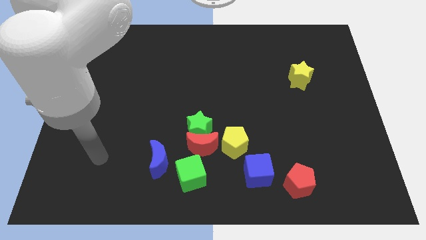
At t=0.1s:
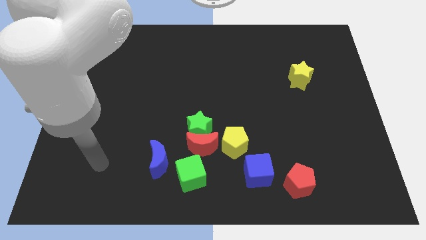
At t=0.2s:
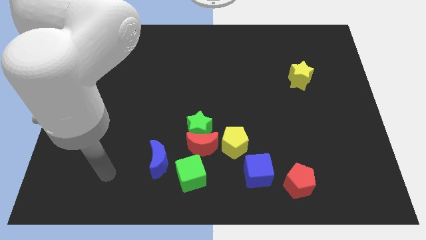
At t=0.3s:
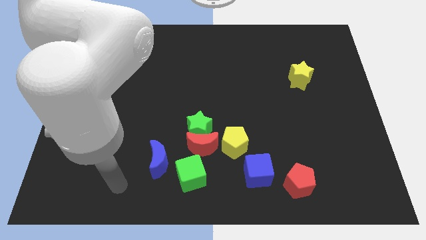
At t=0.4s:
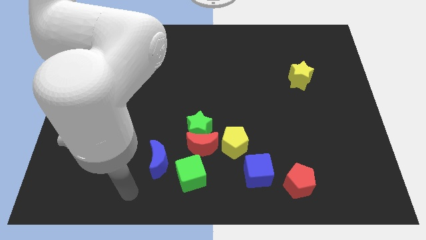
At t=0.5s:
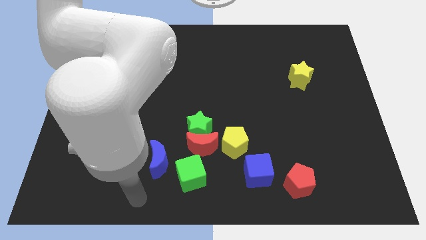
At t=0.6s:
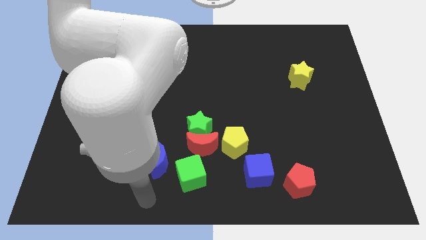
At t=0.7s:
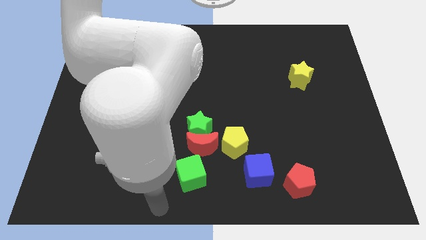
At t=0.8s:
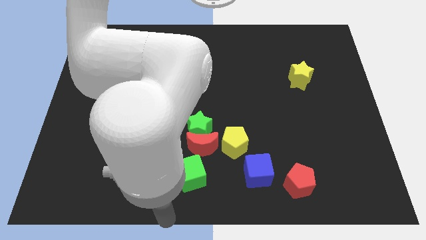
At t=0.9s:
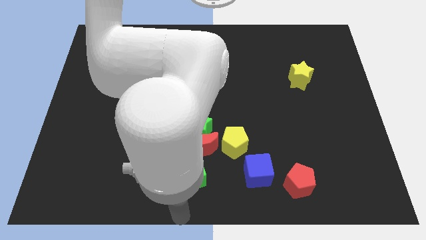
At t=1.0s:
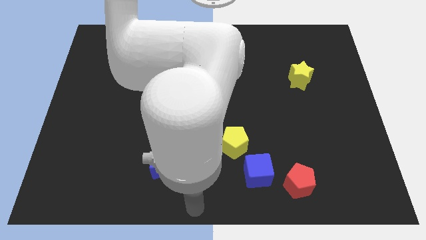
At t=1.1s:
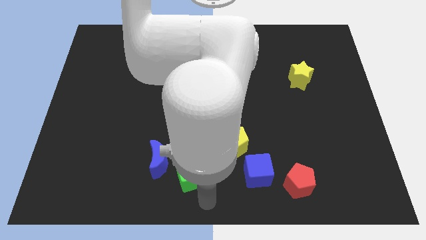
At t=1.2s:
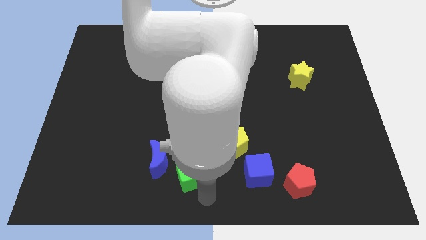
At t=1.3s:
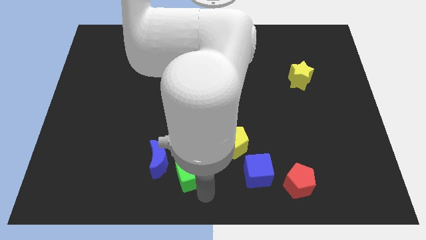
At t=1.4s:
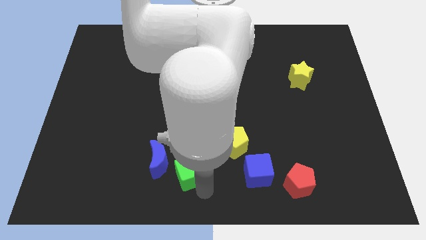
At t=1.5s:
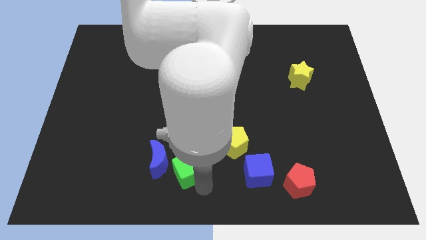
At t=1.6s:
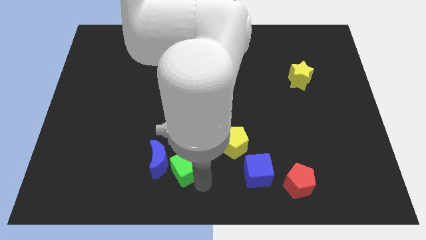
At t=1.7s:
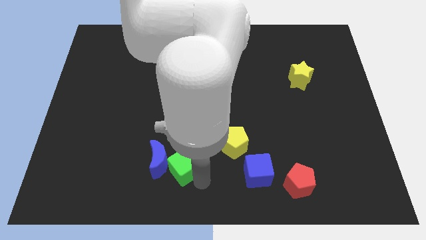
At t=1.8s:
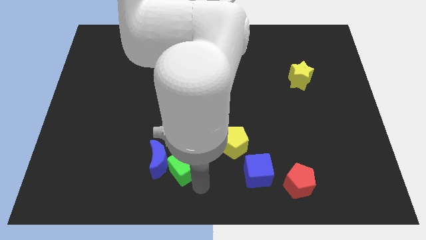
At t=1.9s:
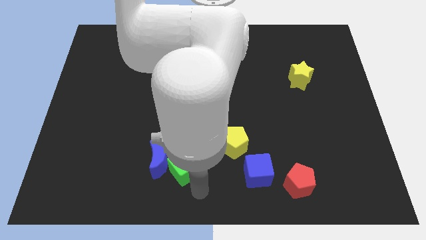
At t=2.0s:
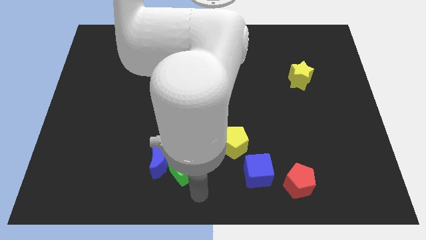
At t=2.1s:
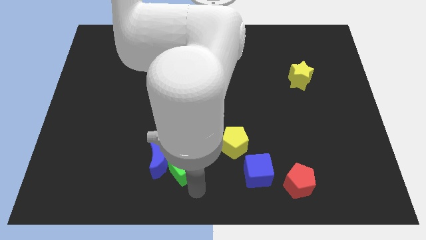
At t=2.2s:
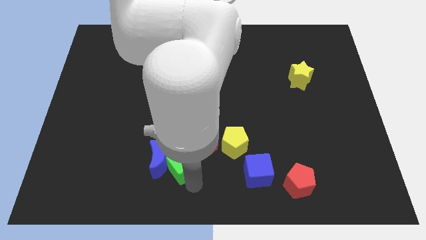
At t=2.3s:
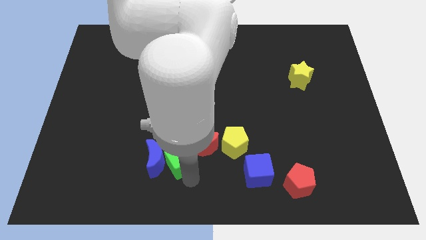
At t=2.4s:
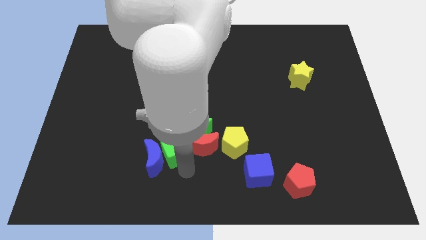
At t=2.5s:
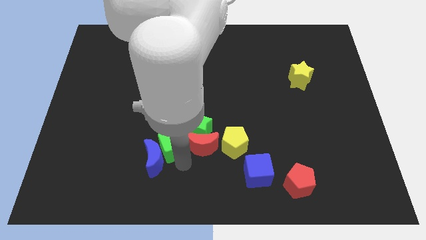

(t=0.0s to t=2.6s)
push the green cube a bit up and then left

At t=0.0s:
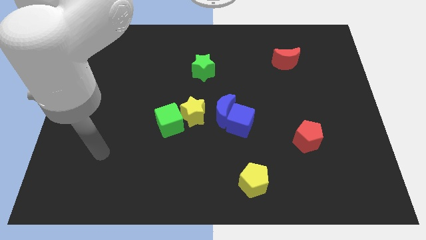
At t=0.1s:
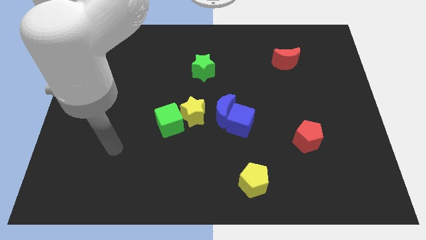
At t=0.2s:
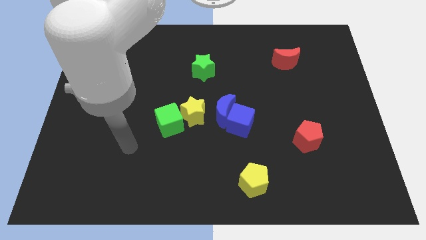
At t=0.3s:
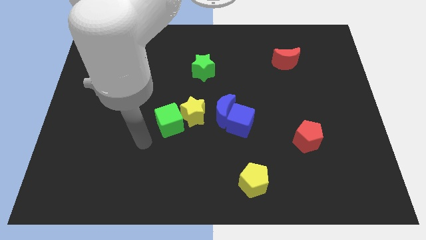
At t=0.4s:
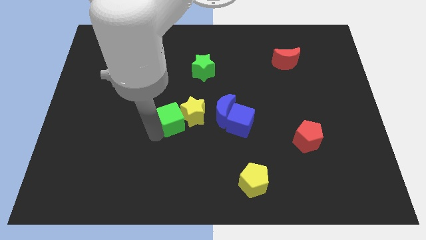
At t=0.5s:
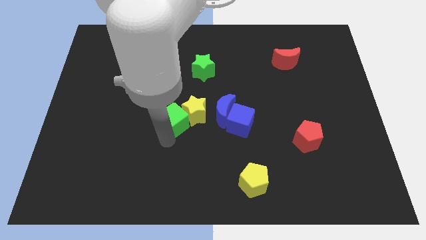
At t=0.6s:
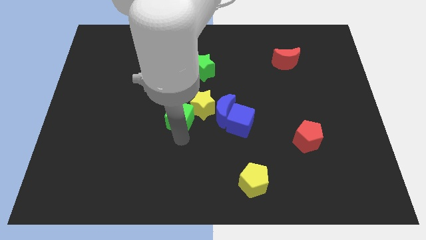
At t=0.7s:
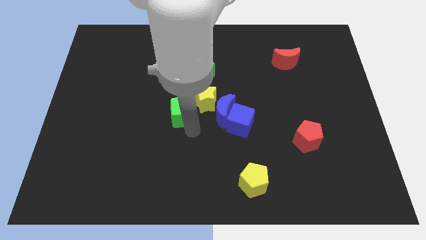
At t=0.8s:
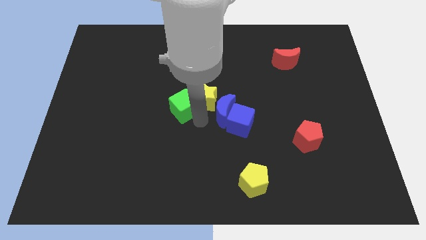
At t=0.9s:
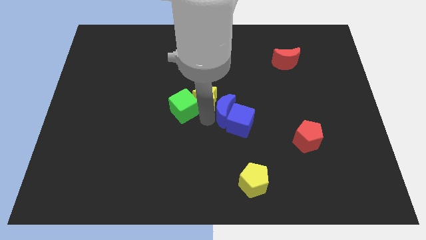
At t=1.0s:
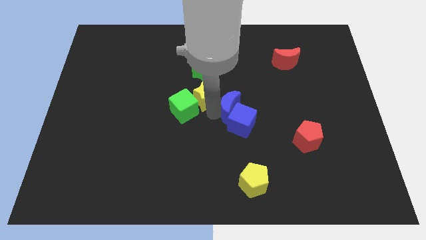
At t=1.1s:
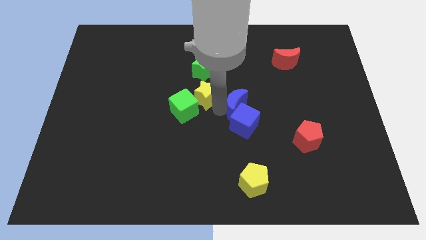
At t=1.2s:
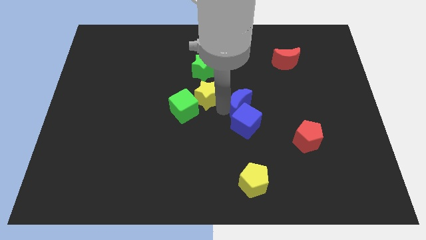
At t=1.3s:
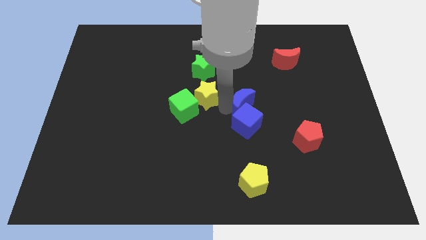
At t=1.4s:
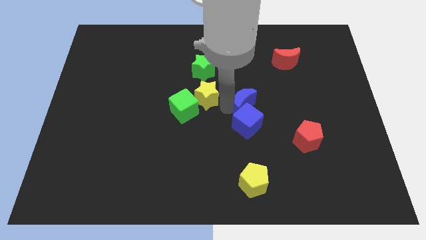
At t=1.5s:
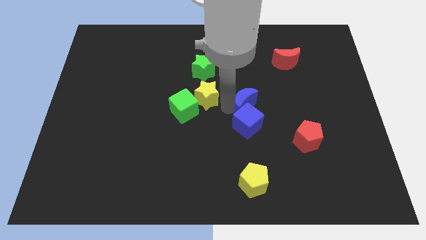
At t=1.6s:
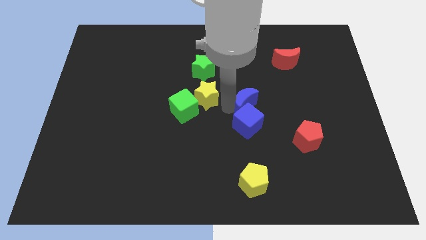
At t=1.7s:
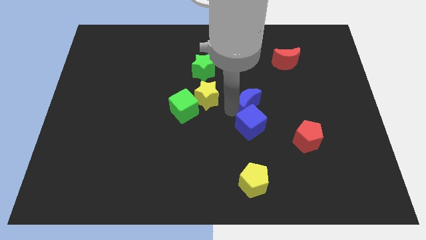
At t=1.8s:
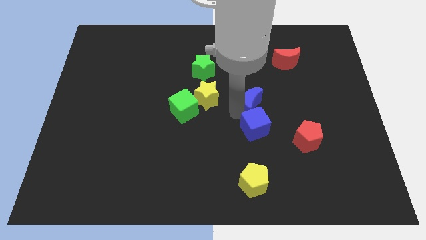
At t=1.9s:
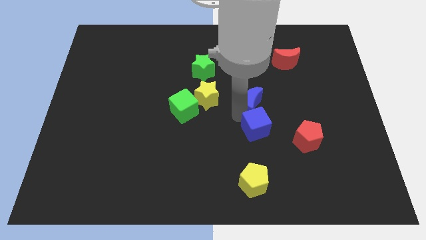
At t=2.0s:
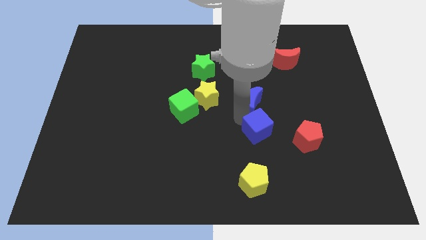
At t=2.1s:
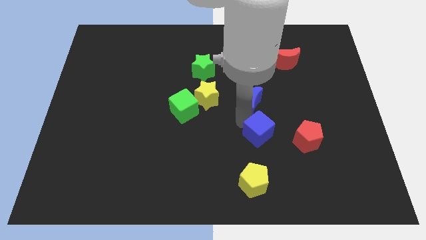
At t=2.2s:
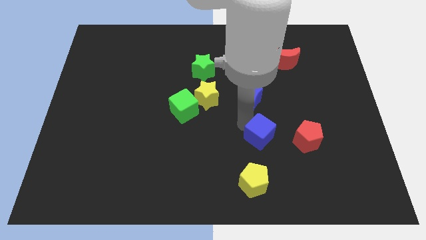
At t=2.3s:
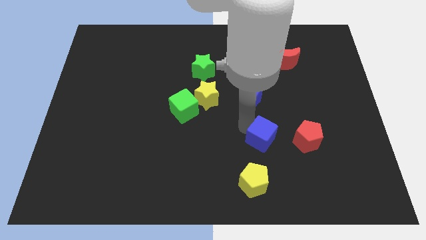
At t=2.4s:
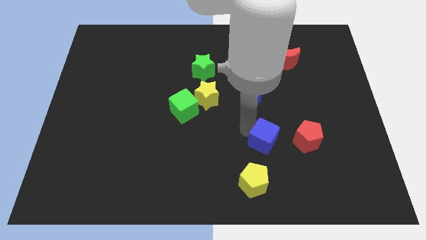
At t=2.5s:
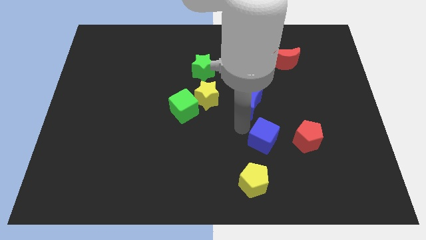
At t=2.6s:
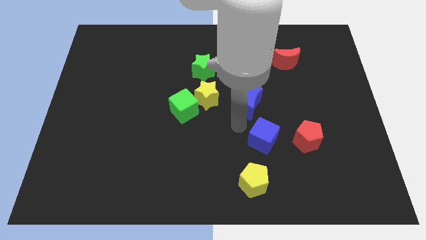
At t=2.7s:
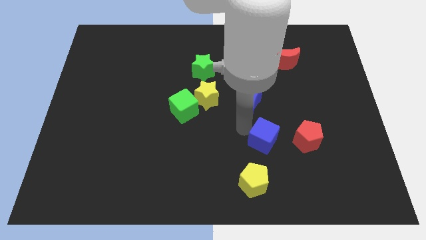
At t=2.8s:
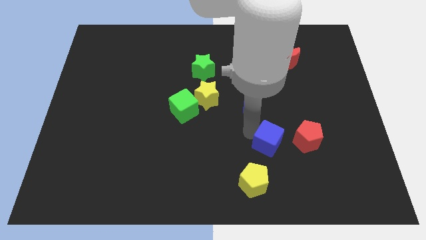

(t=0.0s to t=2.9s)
slightly push the blue cube diagonally down and right

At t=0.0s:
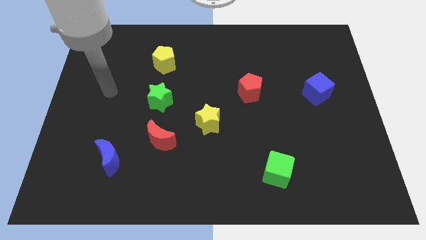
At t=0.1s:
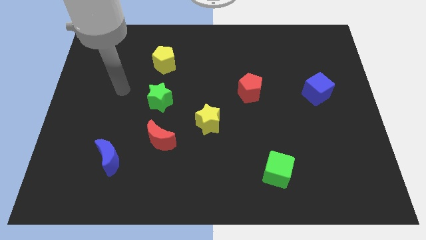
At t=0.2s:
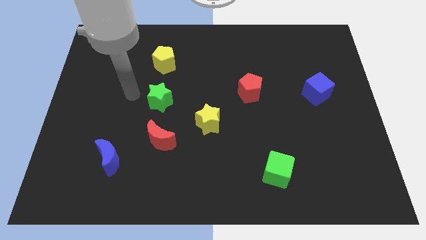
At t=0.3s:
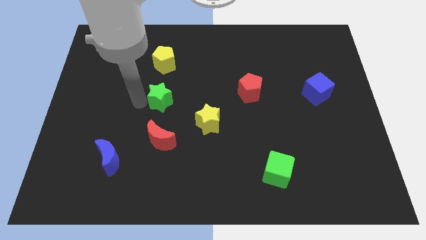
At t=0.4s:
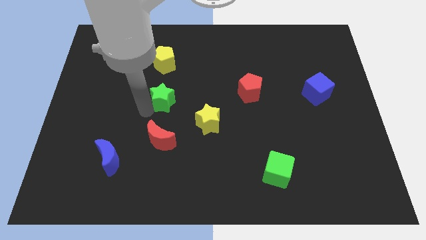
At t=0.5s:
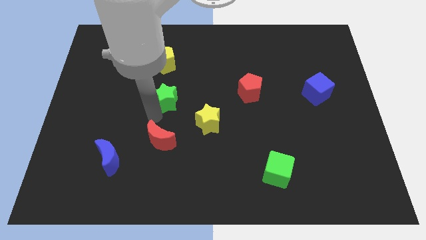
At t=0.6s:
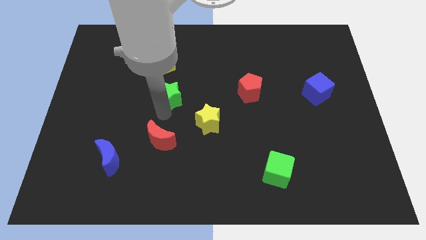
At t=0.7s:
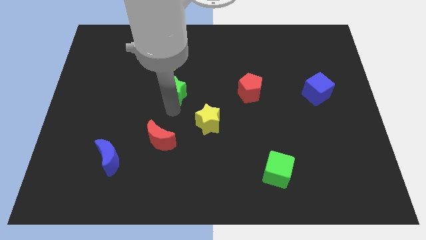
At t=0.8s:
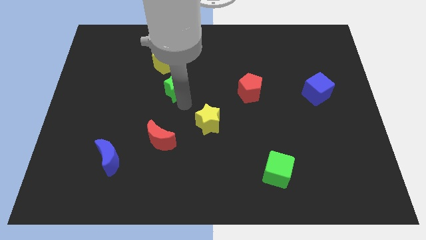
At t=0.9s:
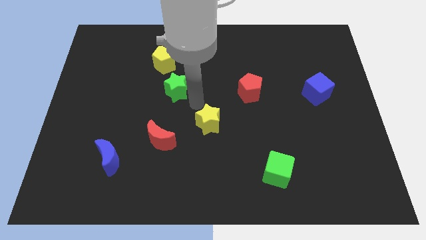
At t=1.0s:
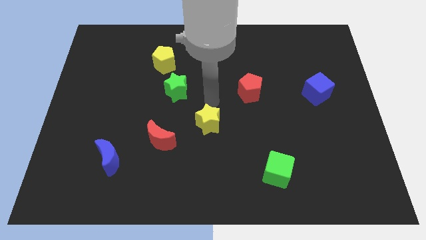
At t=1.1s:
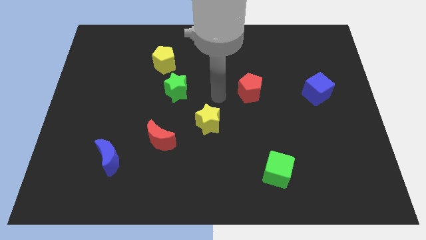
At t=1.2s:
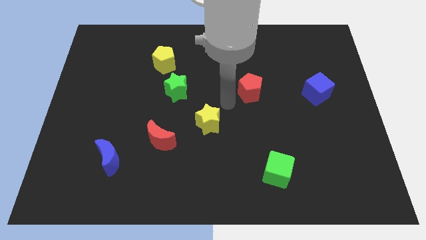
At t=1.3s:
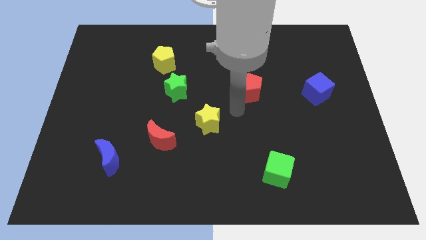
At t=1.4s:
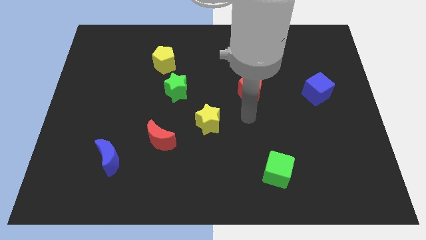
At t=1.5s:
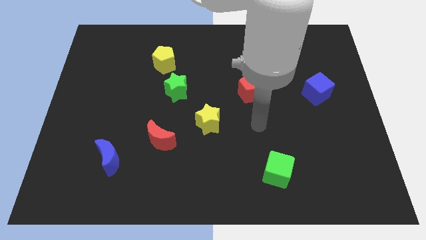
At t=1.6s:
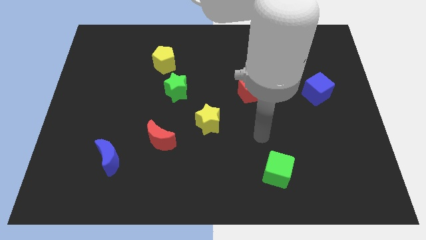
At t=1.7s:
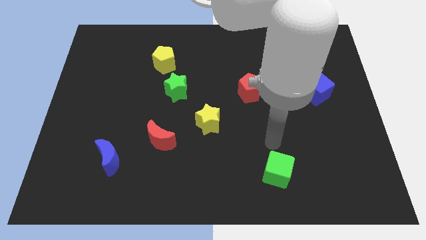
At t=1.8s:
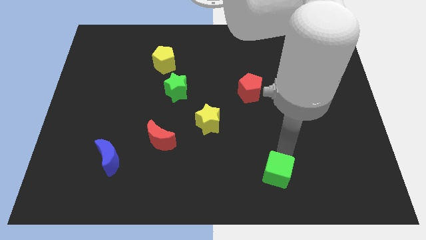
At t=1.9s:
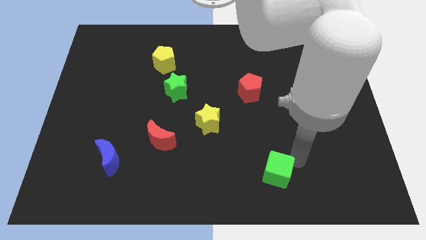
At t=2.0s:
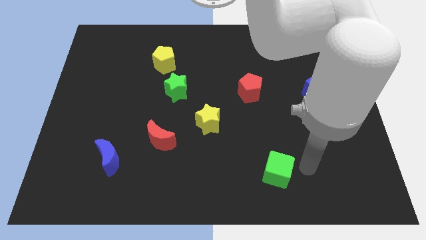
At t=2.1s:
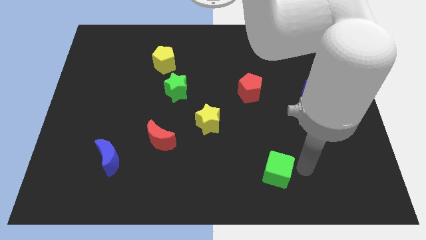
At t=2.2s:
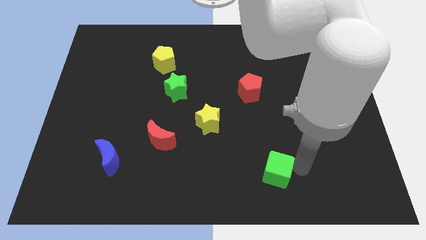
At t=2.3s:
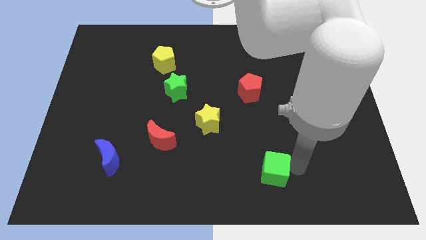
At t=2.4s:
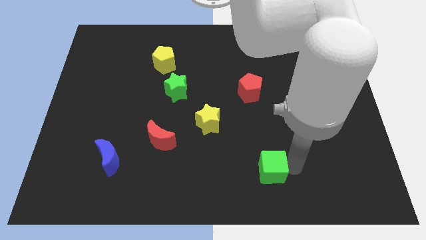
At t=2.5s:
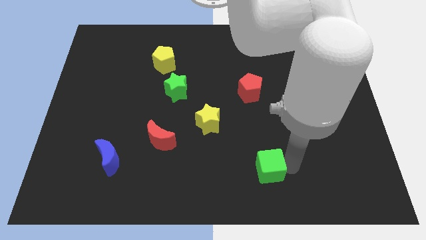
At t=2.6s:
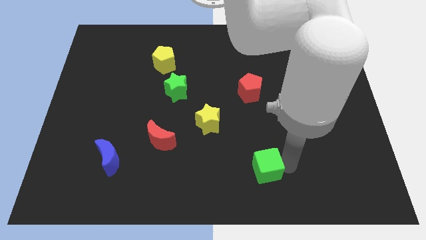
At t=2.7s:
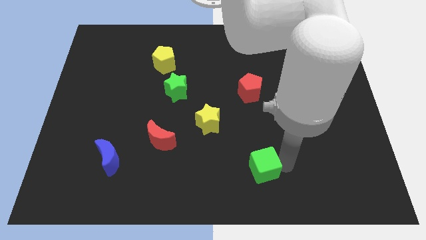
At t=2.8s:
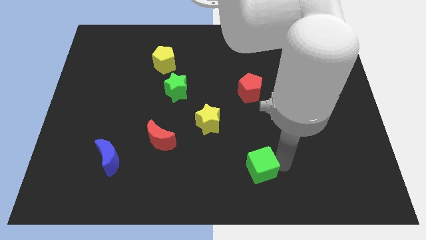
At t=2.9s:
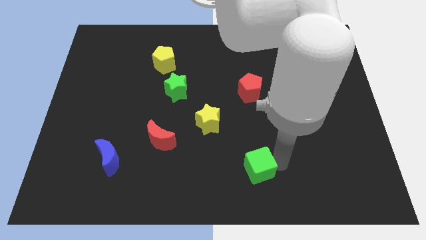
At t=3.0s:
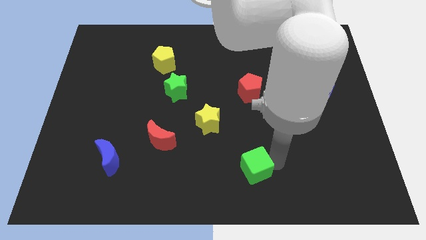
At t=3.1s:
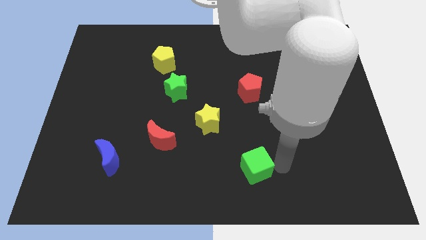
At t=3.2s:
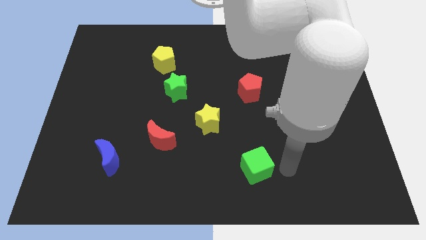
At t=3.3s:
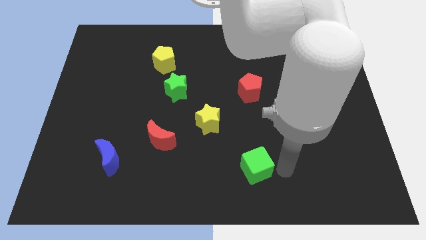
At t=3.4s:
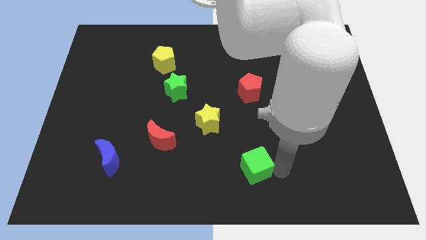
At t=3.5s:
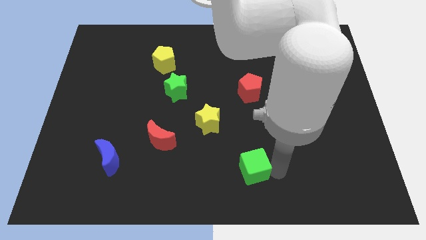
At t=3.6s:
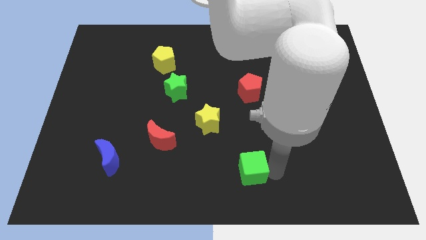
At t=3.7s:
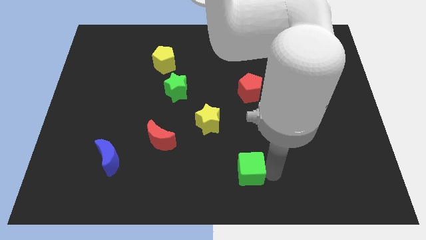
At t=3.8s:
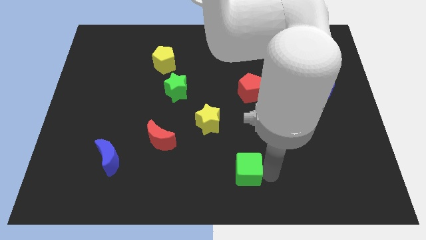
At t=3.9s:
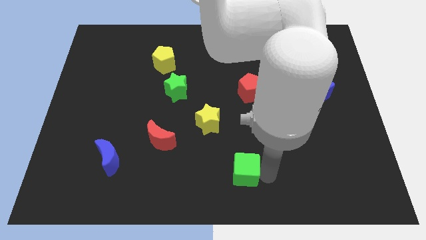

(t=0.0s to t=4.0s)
slightly move the green cube left
